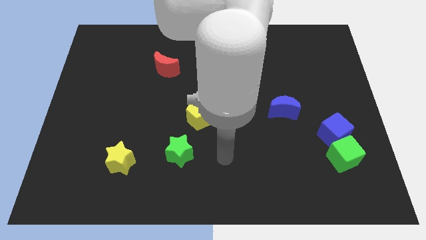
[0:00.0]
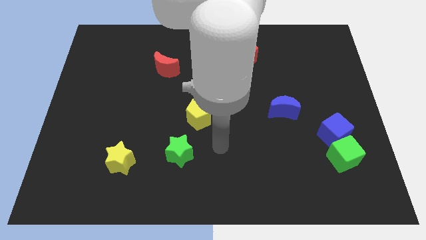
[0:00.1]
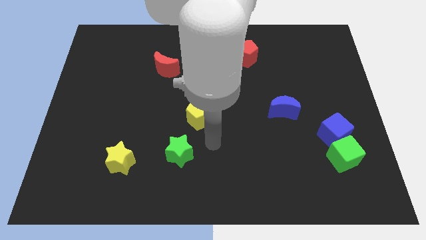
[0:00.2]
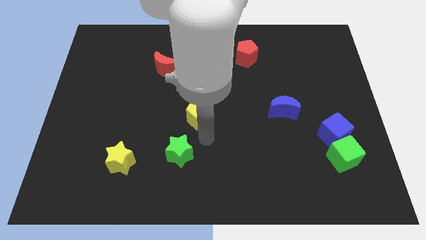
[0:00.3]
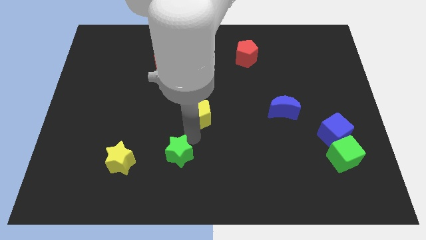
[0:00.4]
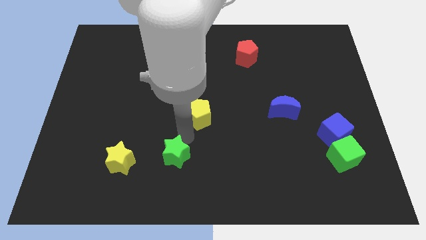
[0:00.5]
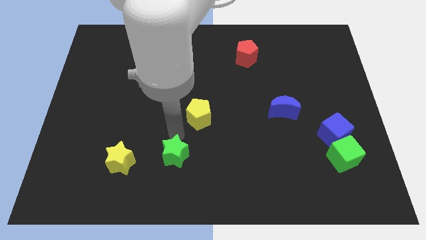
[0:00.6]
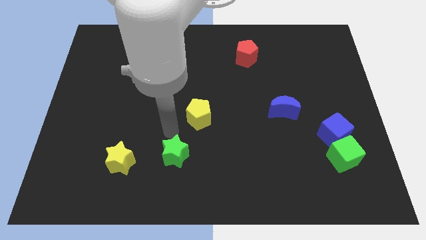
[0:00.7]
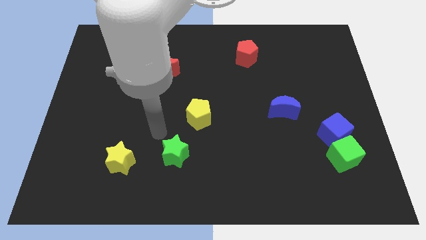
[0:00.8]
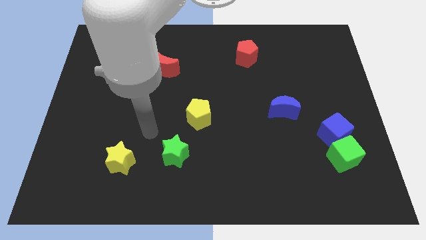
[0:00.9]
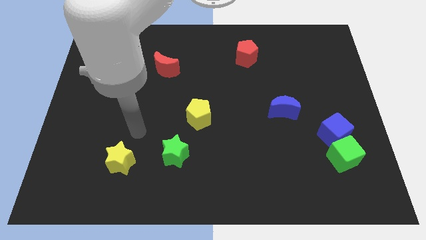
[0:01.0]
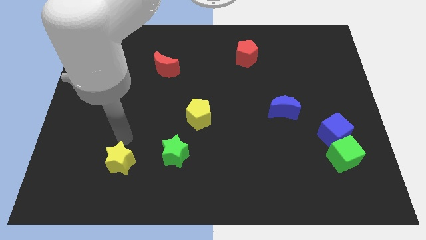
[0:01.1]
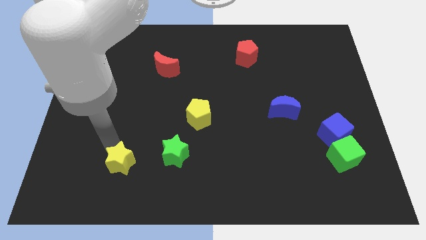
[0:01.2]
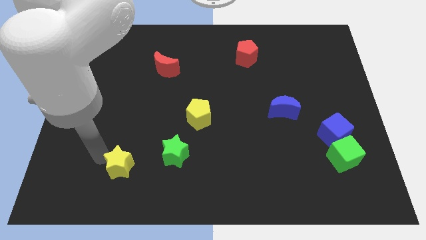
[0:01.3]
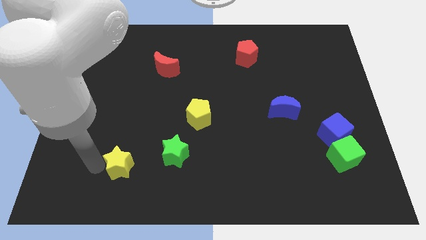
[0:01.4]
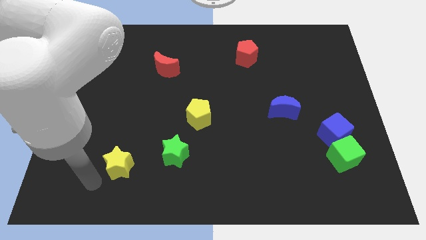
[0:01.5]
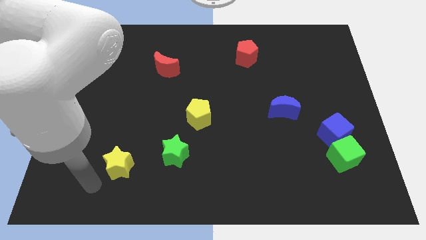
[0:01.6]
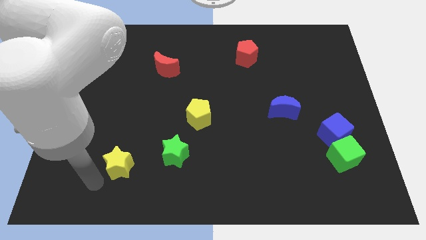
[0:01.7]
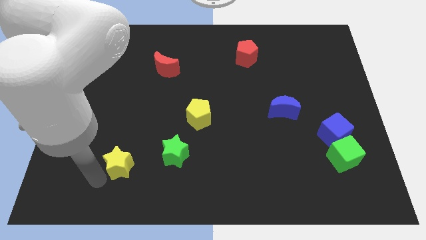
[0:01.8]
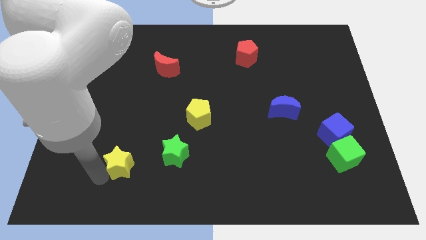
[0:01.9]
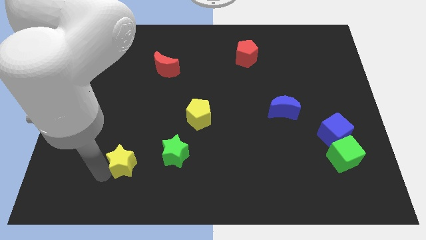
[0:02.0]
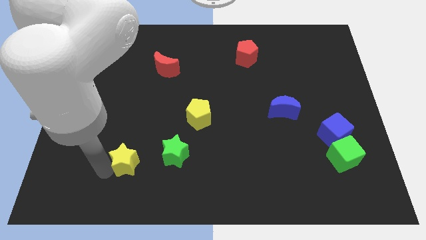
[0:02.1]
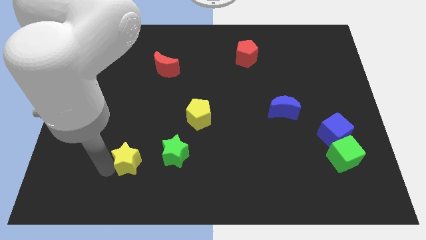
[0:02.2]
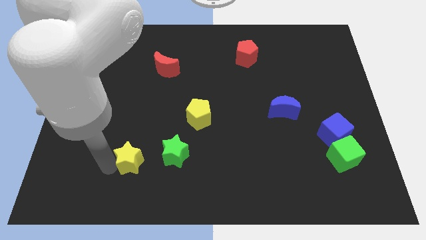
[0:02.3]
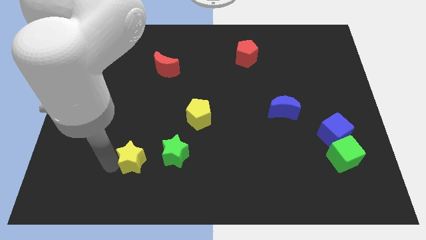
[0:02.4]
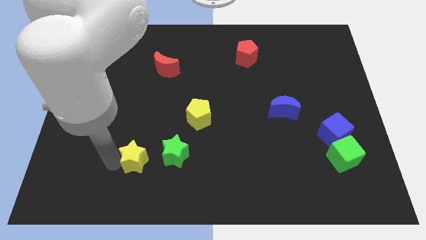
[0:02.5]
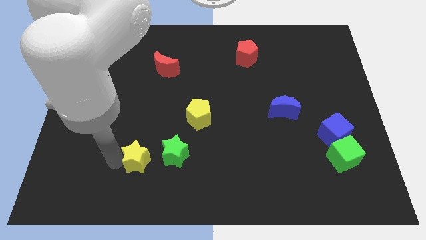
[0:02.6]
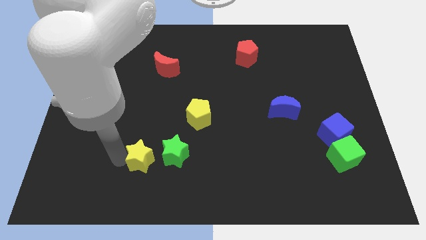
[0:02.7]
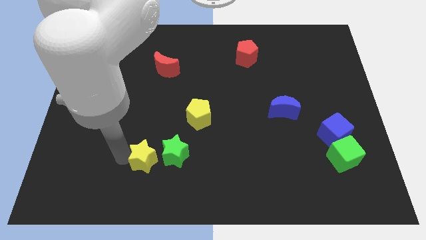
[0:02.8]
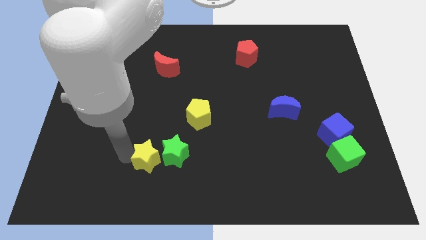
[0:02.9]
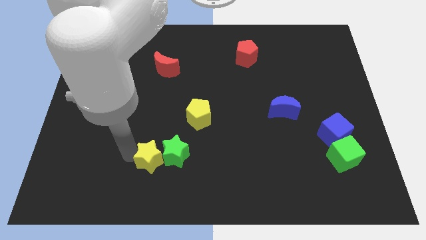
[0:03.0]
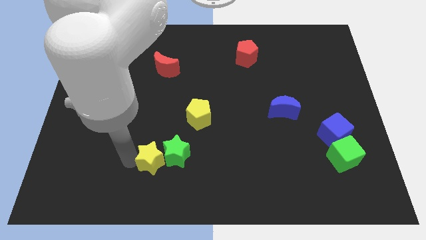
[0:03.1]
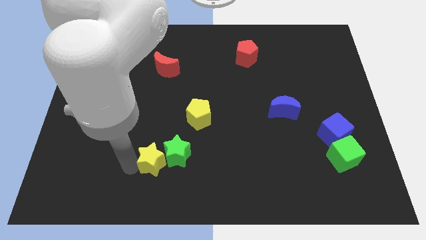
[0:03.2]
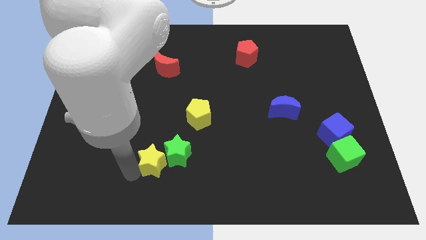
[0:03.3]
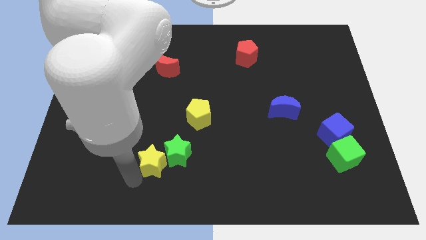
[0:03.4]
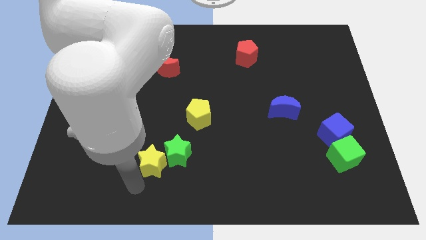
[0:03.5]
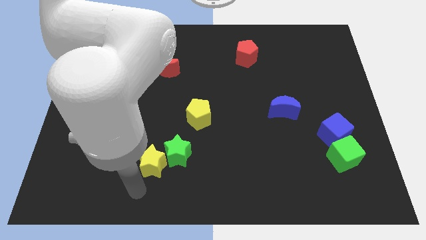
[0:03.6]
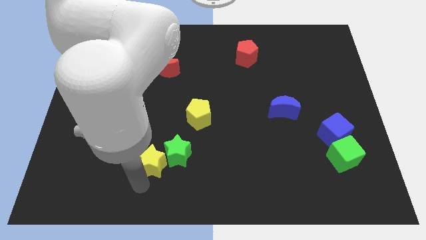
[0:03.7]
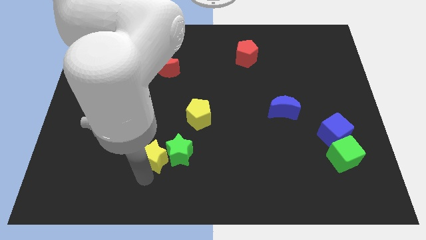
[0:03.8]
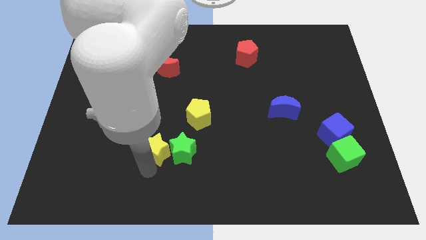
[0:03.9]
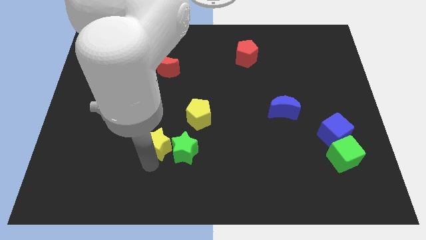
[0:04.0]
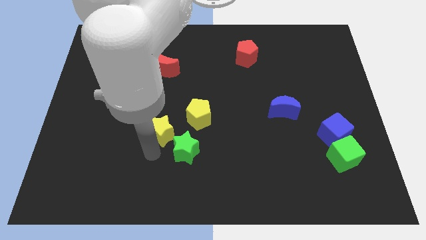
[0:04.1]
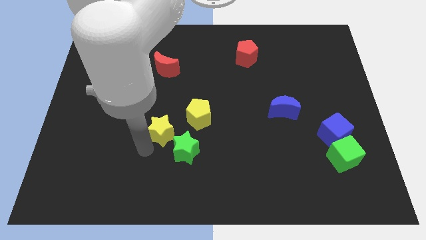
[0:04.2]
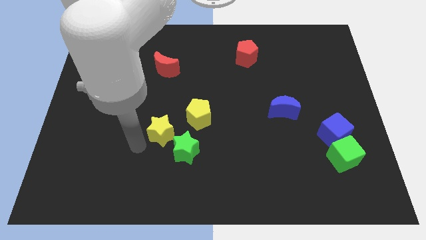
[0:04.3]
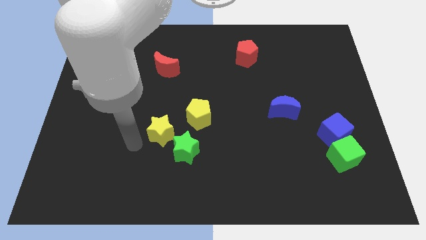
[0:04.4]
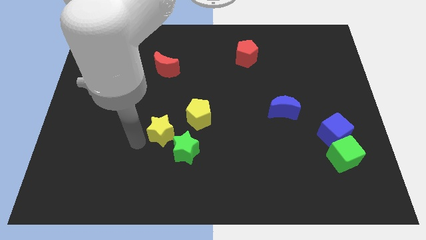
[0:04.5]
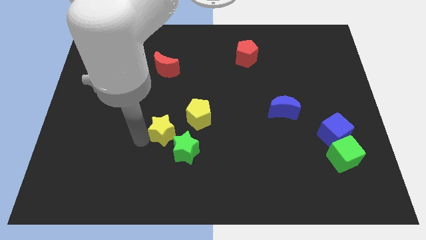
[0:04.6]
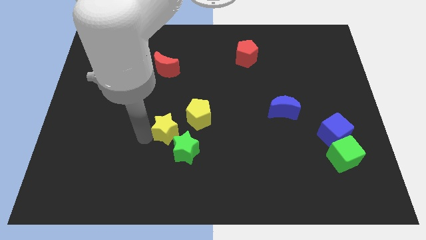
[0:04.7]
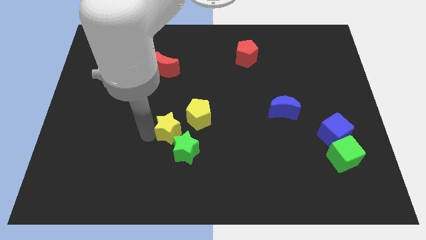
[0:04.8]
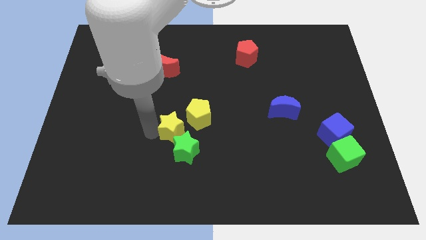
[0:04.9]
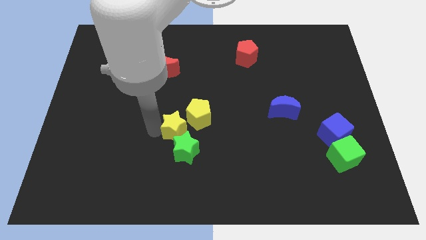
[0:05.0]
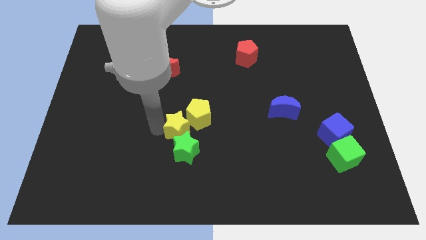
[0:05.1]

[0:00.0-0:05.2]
push the yellow star close to the yellow pentagon

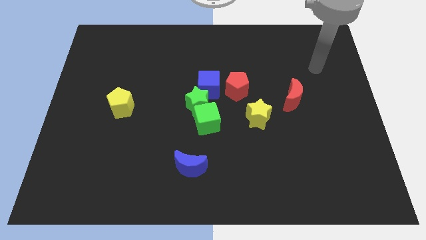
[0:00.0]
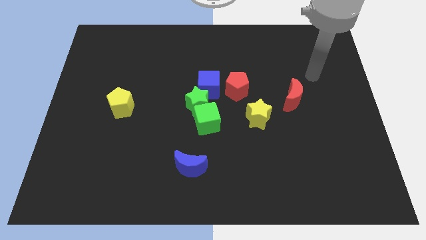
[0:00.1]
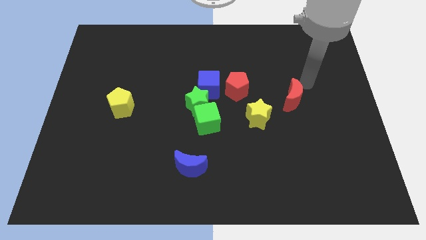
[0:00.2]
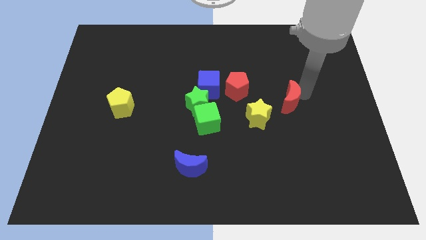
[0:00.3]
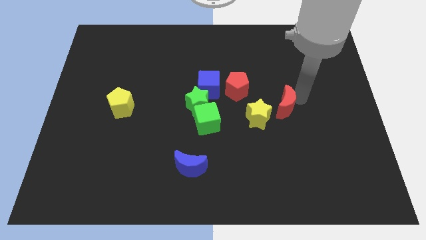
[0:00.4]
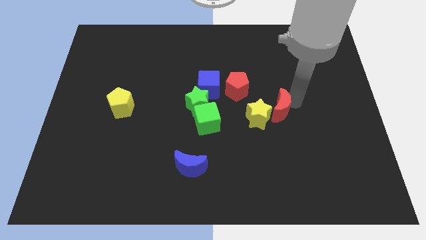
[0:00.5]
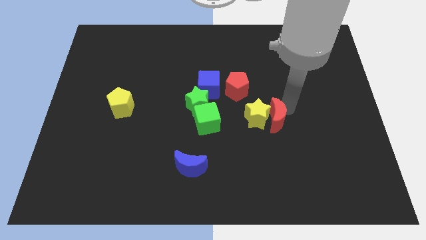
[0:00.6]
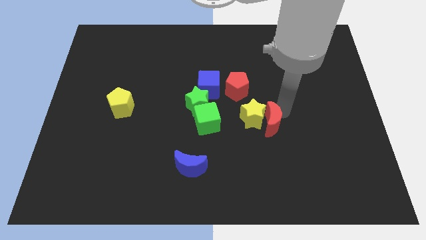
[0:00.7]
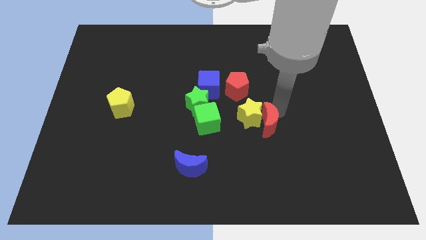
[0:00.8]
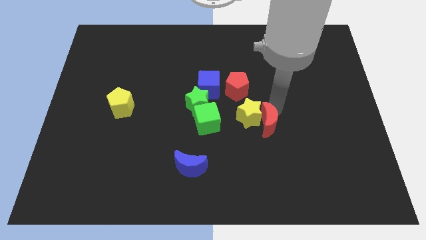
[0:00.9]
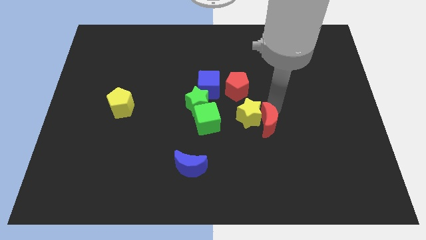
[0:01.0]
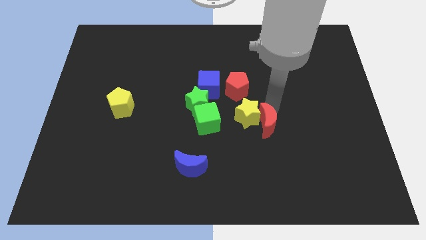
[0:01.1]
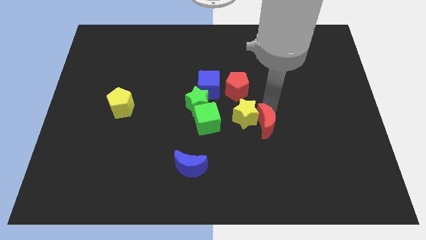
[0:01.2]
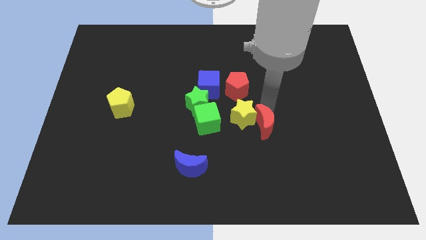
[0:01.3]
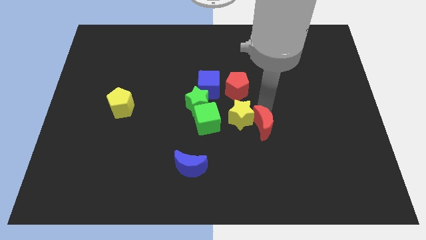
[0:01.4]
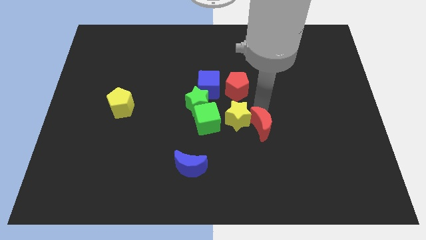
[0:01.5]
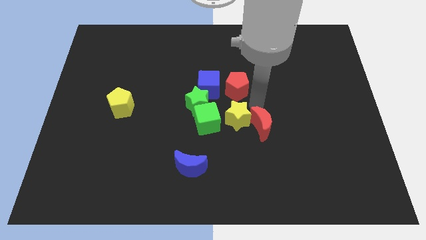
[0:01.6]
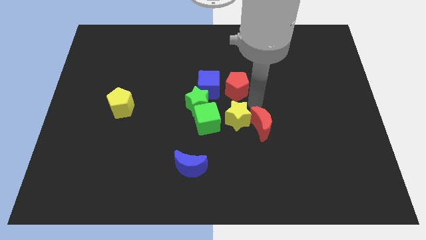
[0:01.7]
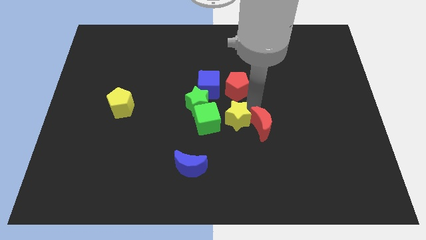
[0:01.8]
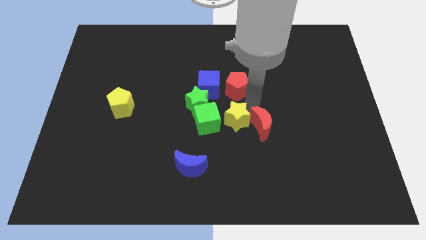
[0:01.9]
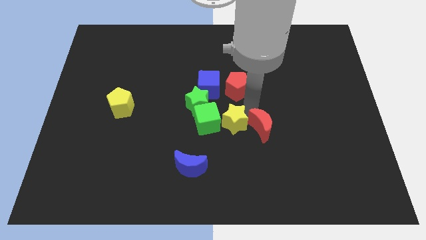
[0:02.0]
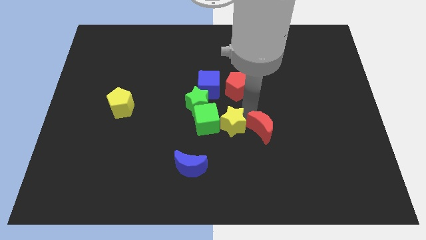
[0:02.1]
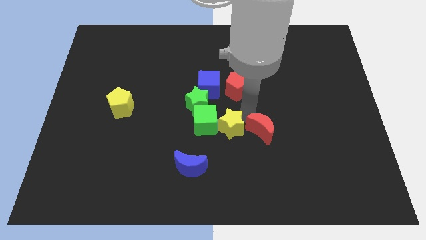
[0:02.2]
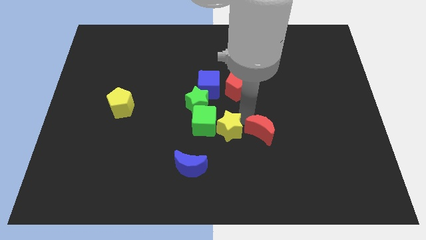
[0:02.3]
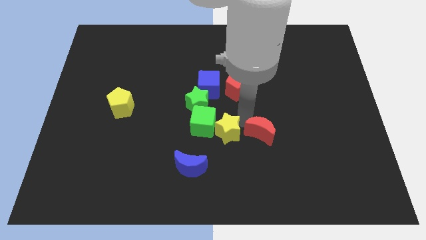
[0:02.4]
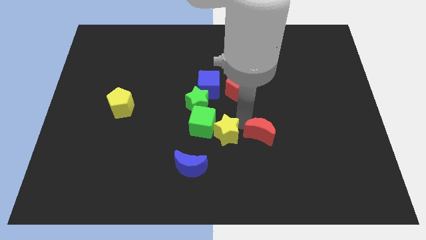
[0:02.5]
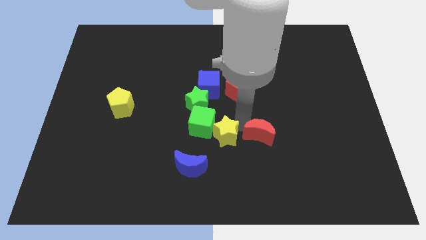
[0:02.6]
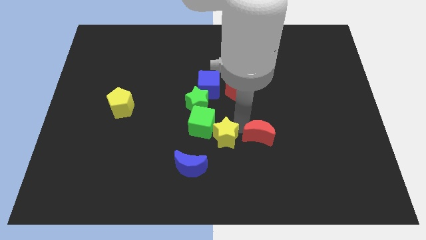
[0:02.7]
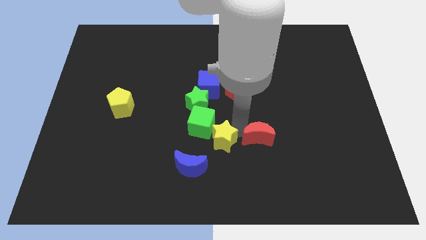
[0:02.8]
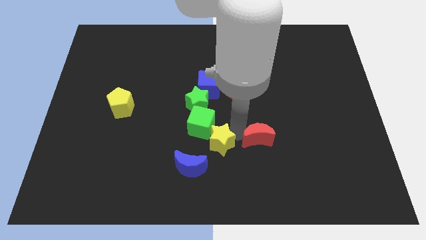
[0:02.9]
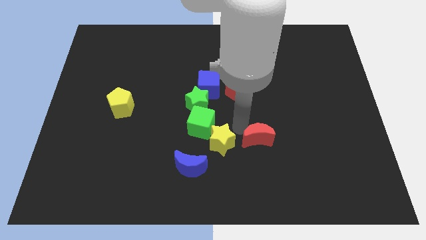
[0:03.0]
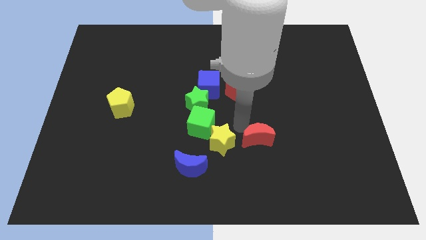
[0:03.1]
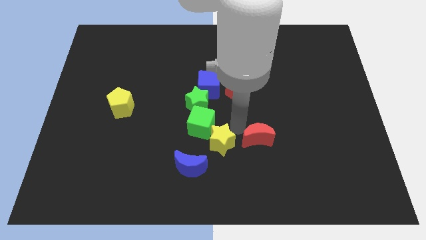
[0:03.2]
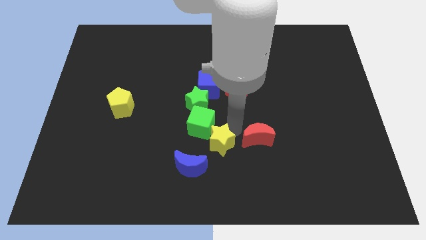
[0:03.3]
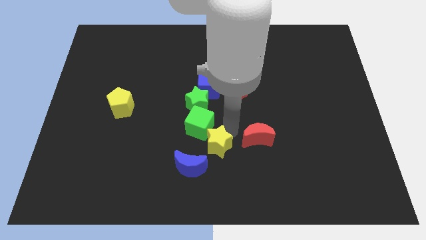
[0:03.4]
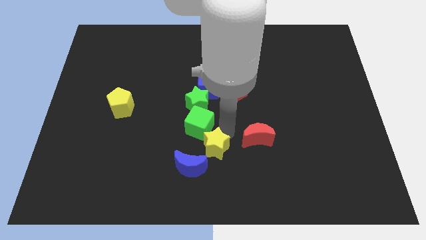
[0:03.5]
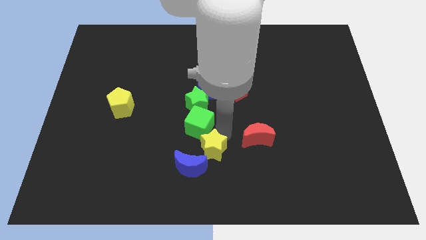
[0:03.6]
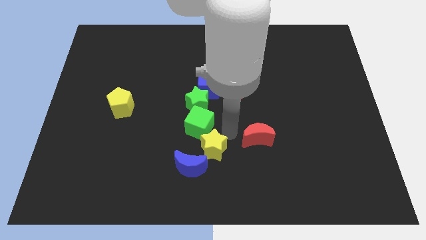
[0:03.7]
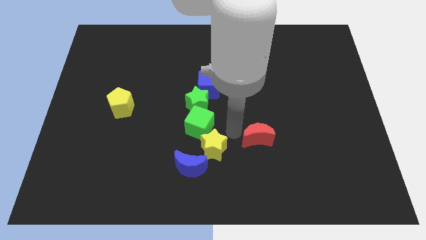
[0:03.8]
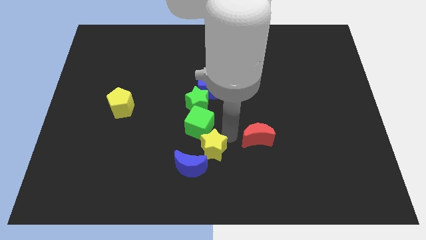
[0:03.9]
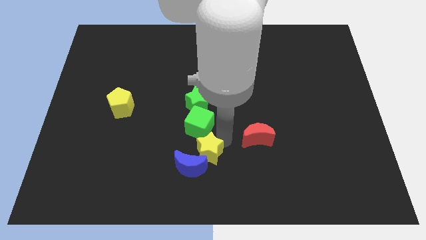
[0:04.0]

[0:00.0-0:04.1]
push the yellow star to the blue moon
